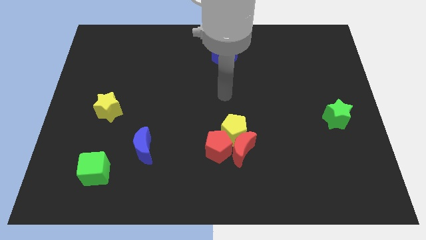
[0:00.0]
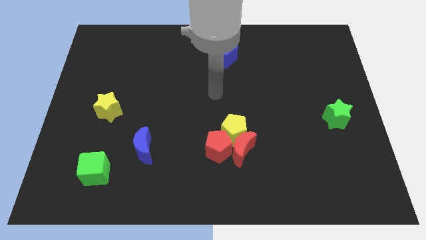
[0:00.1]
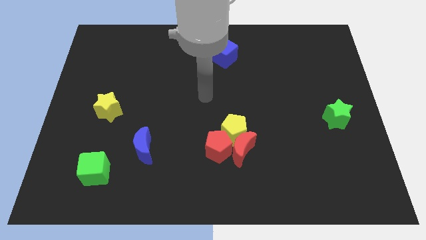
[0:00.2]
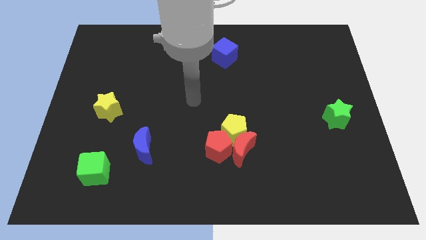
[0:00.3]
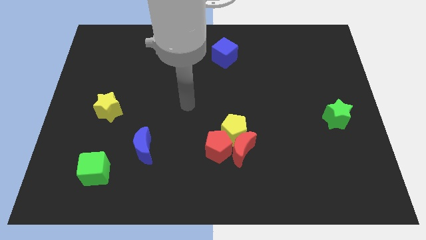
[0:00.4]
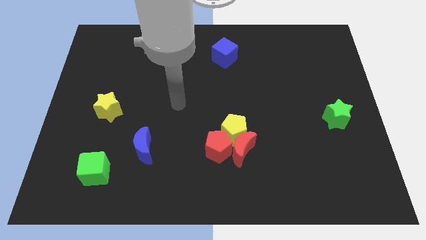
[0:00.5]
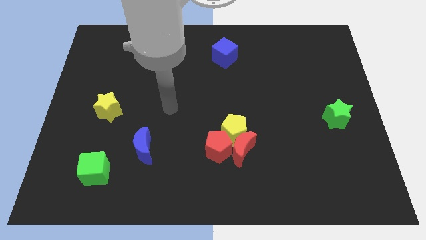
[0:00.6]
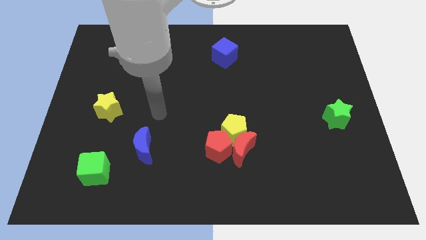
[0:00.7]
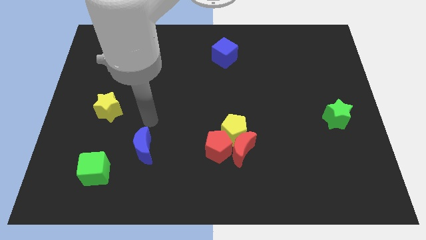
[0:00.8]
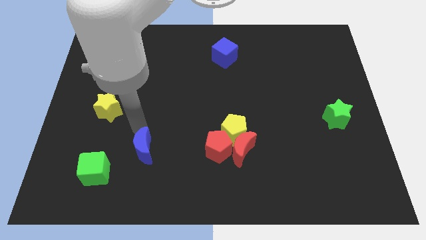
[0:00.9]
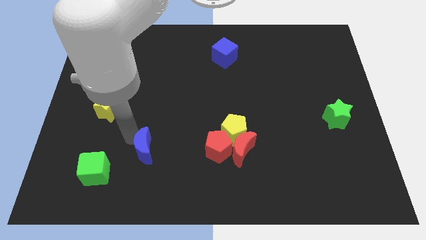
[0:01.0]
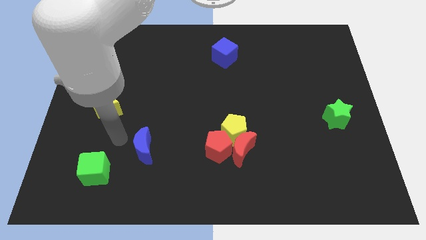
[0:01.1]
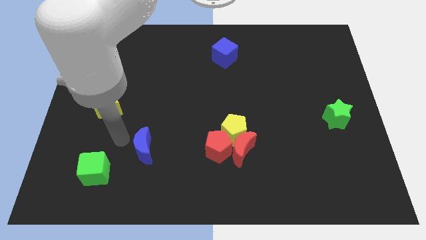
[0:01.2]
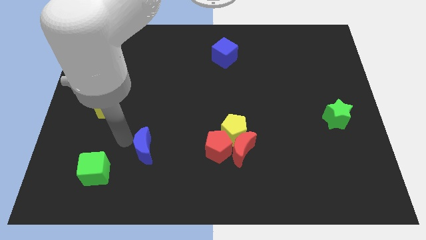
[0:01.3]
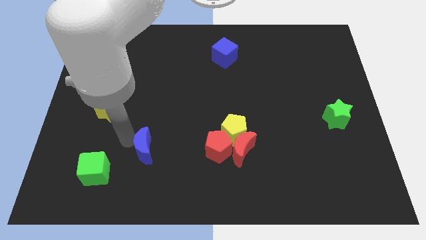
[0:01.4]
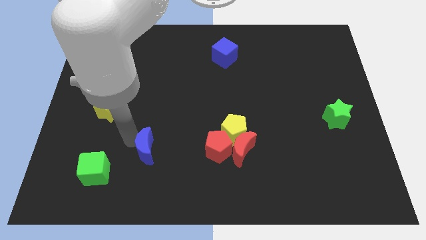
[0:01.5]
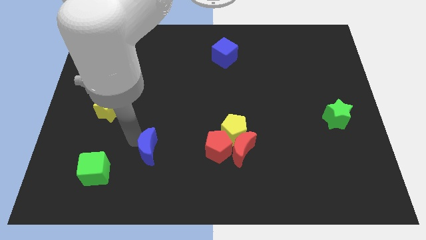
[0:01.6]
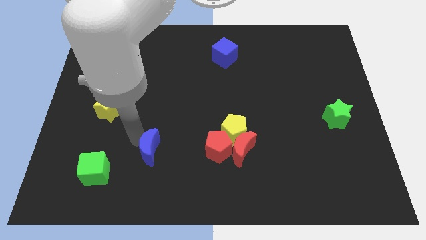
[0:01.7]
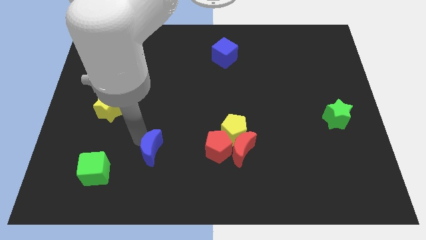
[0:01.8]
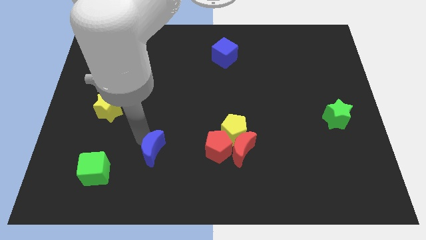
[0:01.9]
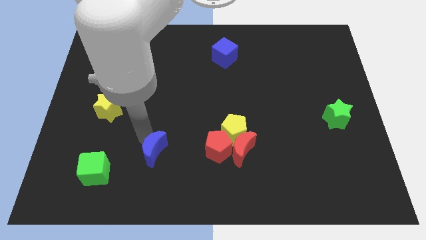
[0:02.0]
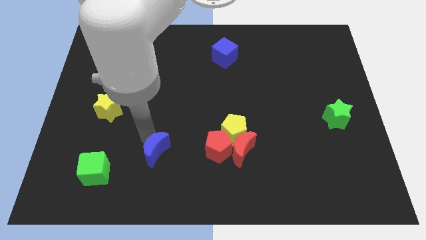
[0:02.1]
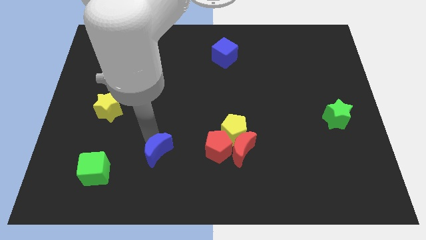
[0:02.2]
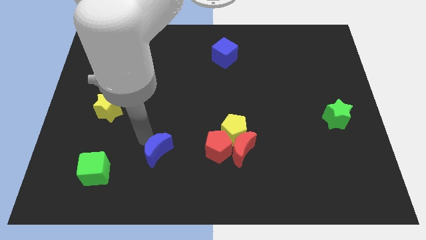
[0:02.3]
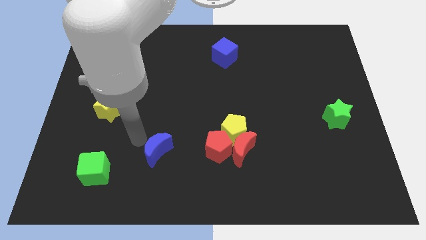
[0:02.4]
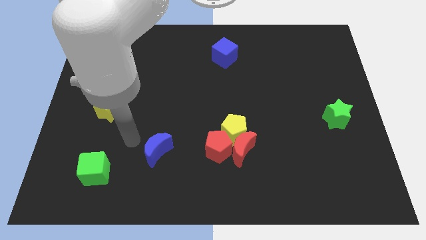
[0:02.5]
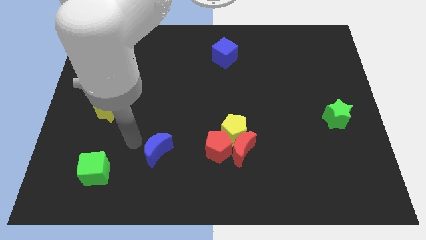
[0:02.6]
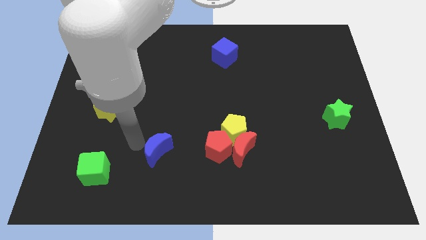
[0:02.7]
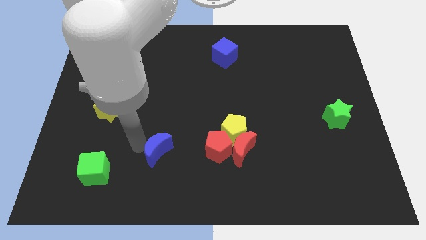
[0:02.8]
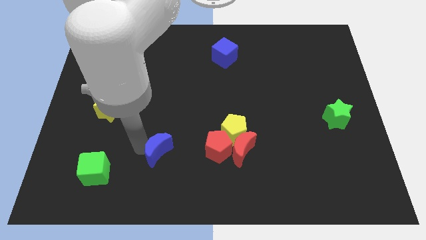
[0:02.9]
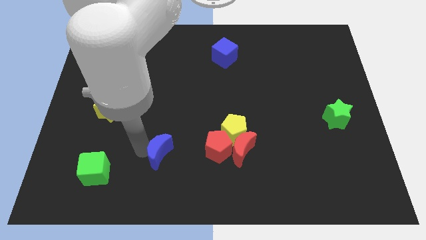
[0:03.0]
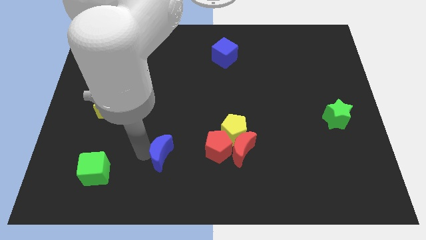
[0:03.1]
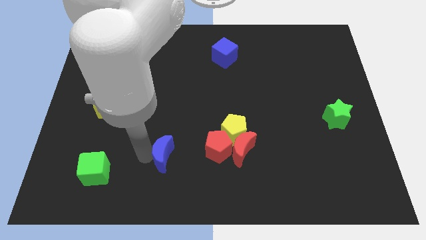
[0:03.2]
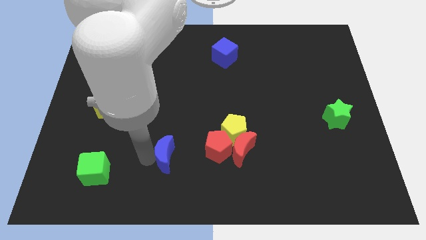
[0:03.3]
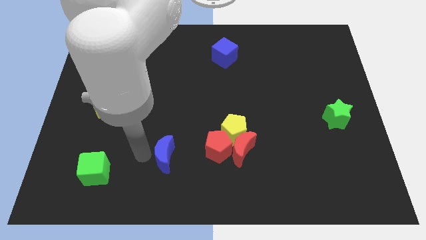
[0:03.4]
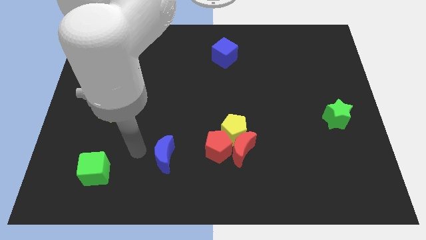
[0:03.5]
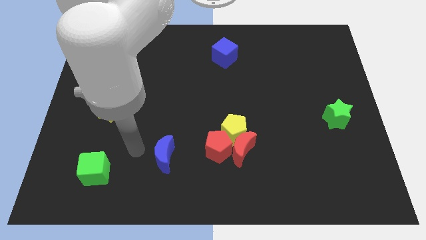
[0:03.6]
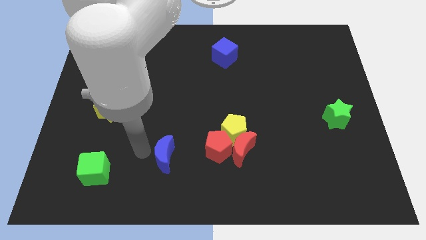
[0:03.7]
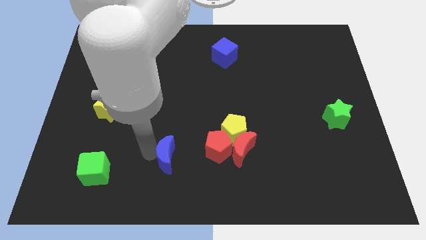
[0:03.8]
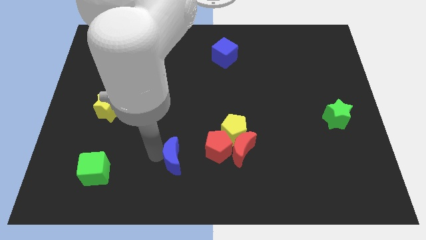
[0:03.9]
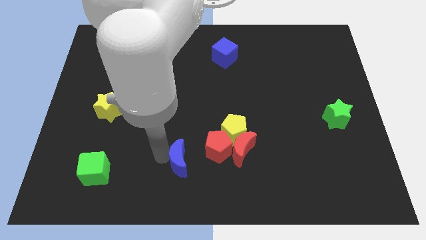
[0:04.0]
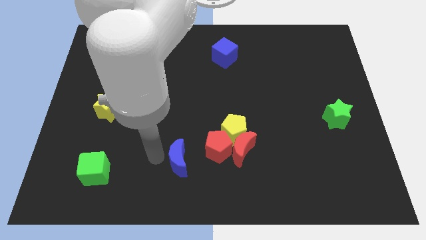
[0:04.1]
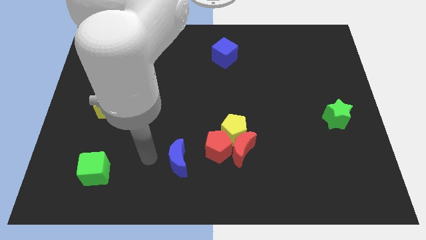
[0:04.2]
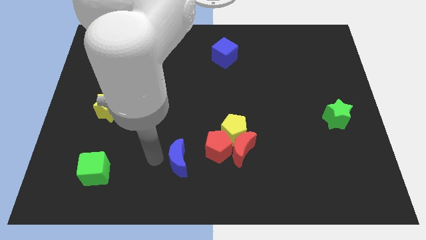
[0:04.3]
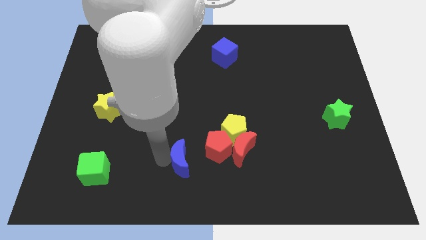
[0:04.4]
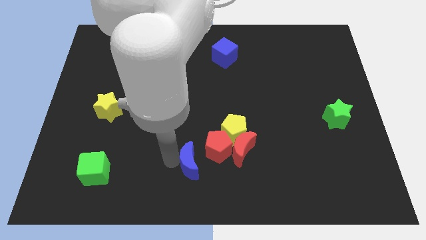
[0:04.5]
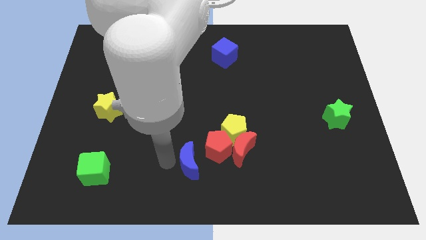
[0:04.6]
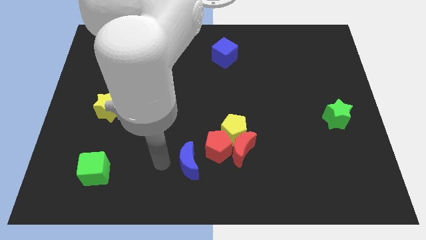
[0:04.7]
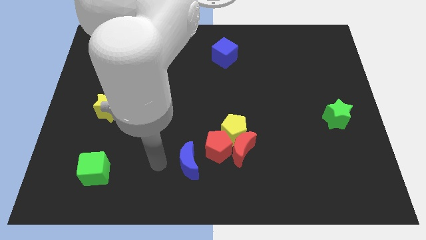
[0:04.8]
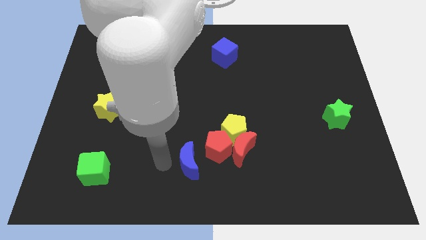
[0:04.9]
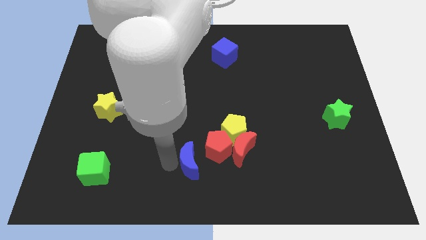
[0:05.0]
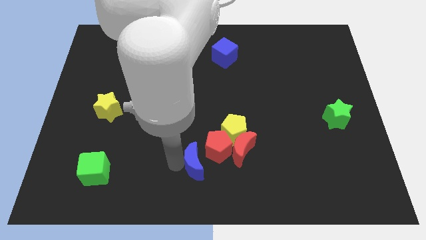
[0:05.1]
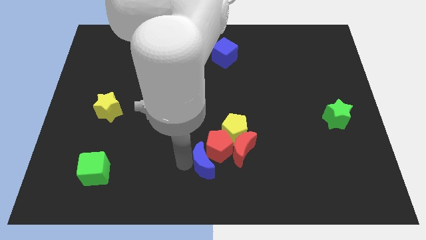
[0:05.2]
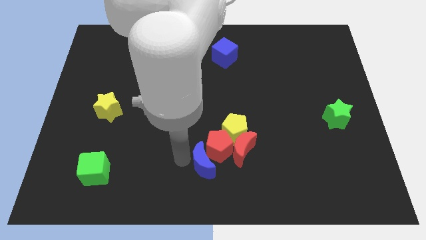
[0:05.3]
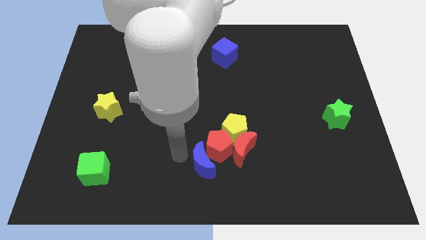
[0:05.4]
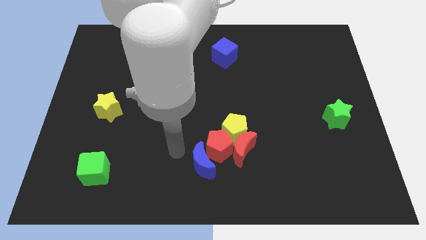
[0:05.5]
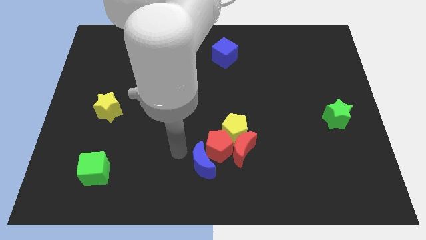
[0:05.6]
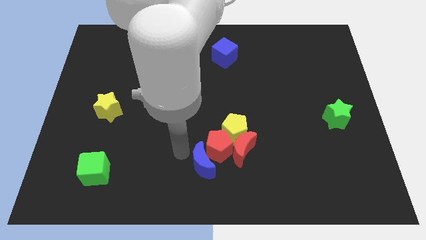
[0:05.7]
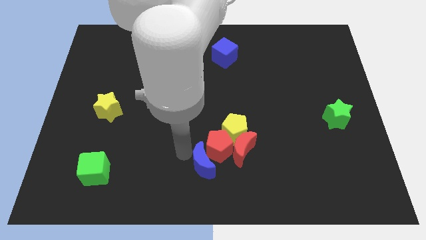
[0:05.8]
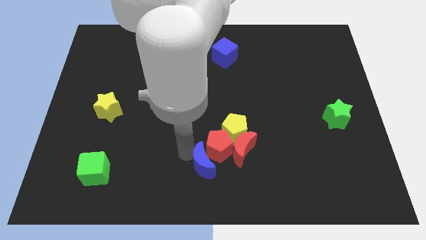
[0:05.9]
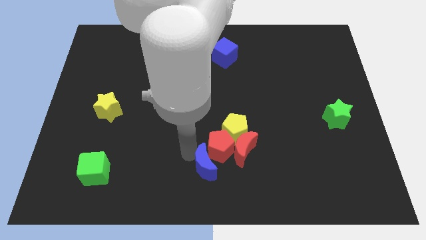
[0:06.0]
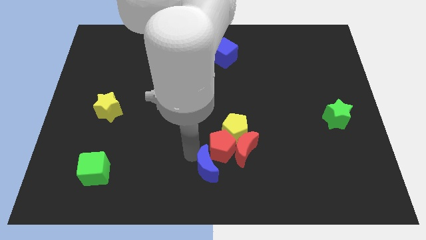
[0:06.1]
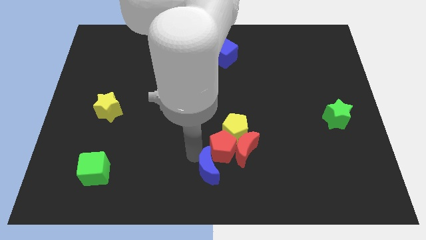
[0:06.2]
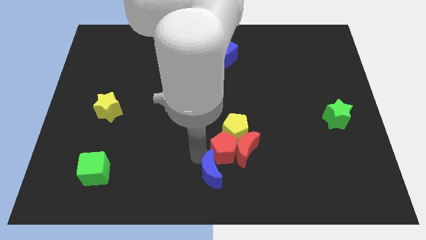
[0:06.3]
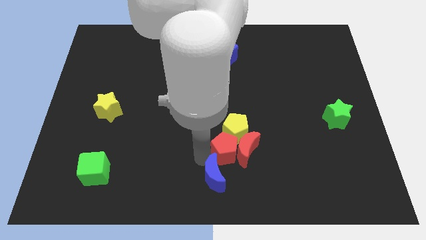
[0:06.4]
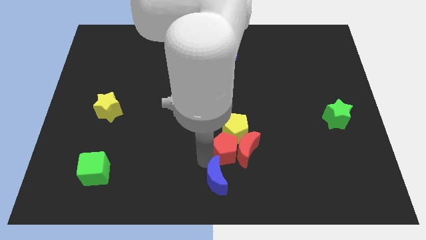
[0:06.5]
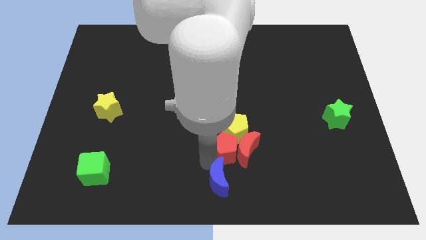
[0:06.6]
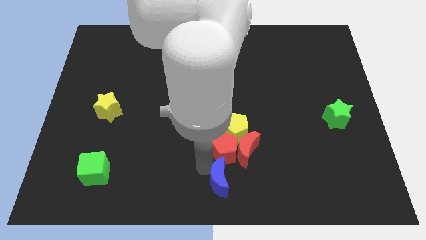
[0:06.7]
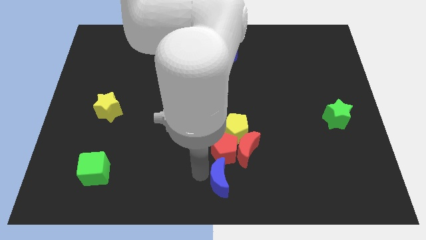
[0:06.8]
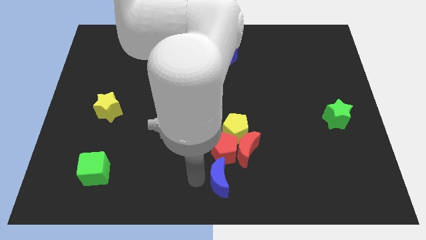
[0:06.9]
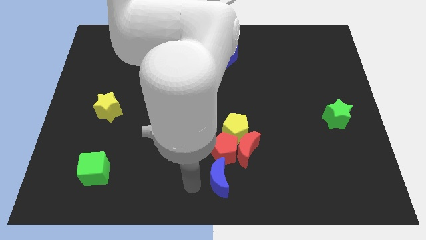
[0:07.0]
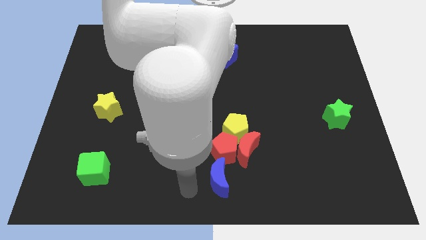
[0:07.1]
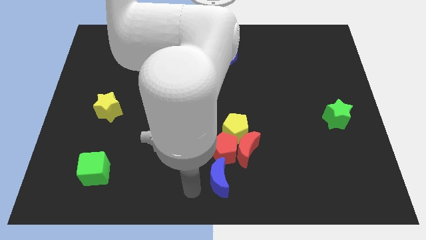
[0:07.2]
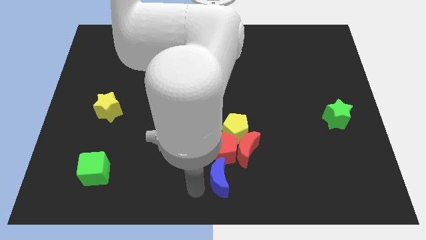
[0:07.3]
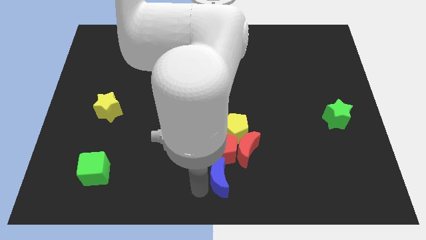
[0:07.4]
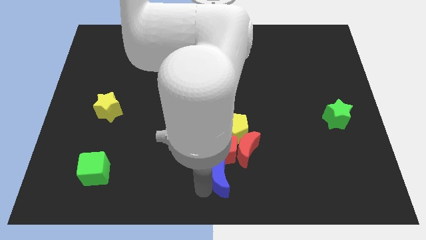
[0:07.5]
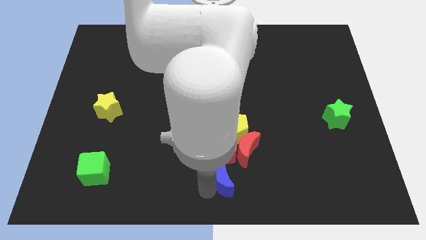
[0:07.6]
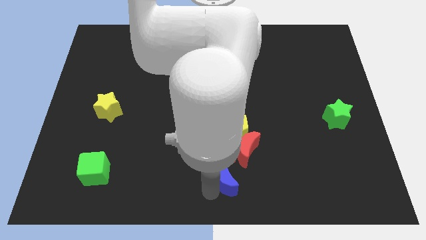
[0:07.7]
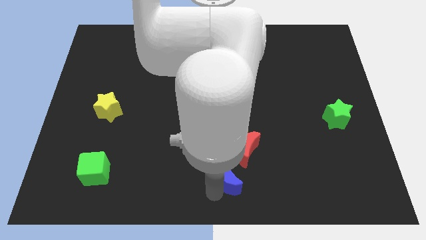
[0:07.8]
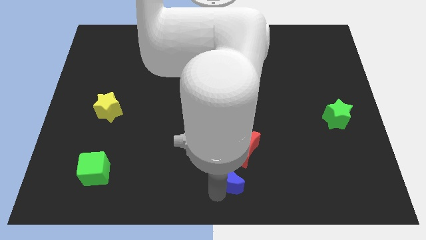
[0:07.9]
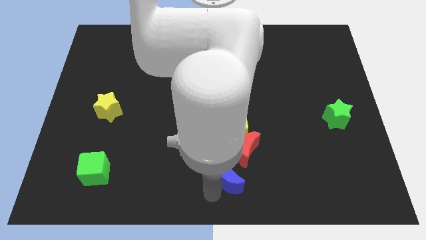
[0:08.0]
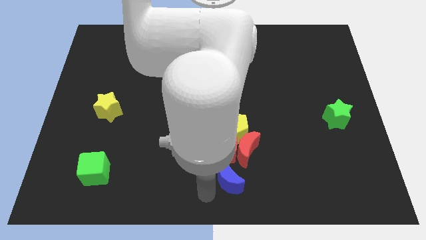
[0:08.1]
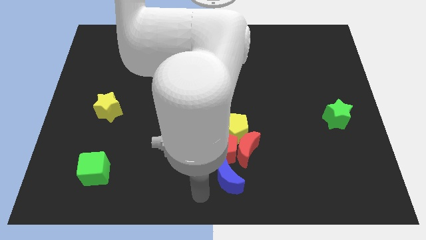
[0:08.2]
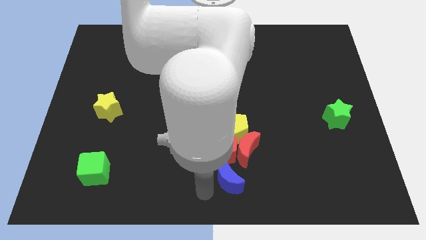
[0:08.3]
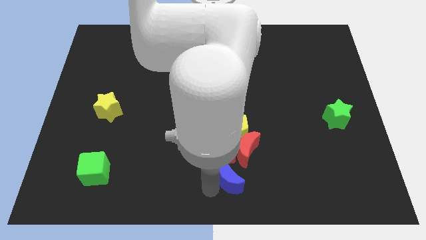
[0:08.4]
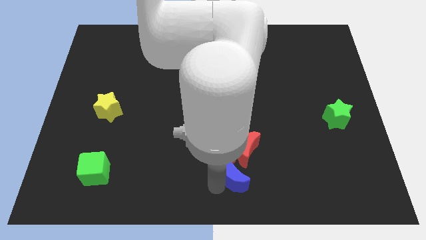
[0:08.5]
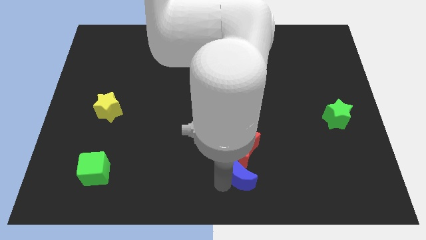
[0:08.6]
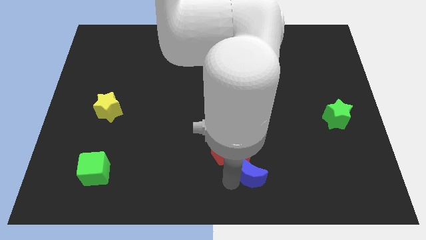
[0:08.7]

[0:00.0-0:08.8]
move the blue moon to the right
